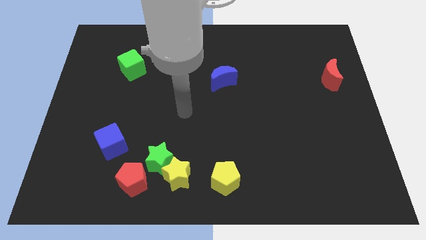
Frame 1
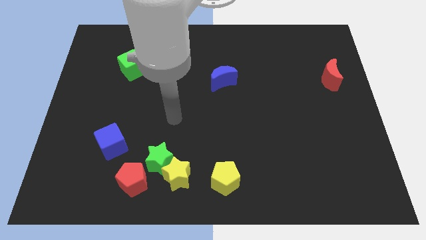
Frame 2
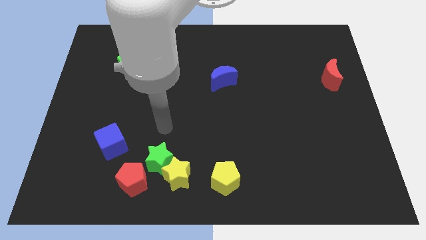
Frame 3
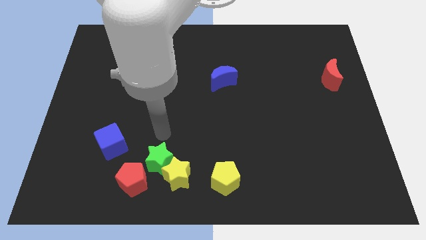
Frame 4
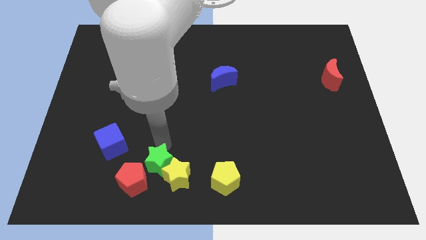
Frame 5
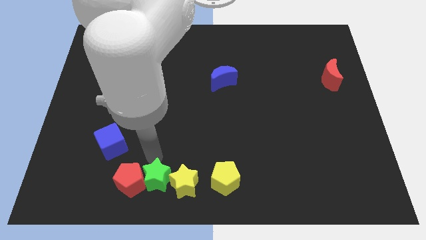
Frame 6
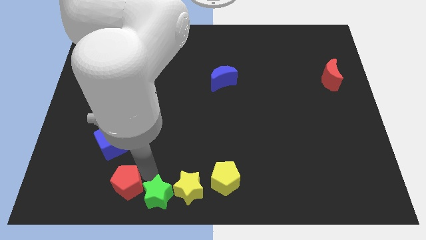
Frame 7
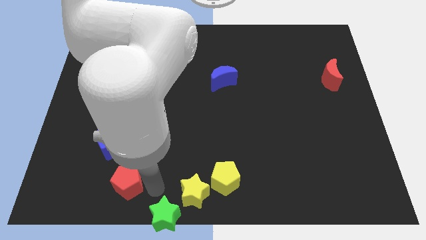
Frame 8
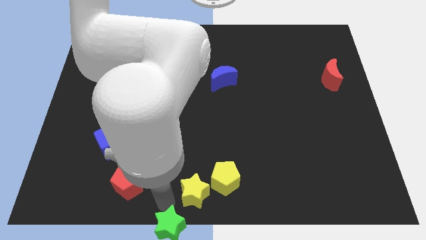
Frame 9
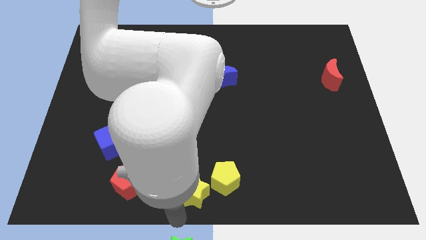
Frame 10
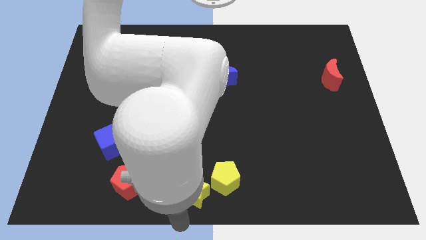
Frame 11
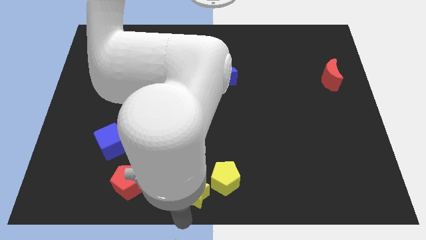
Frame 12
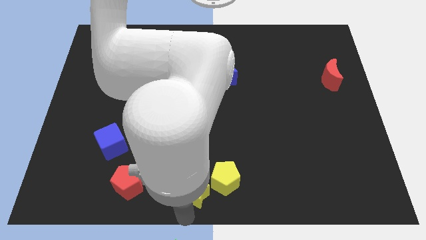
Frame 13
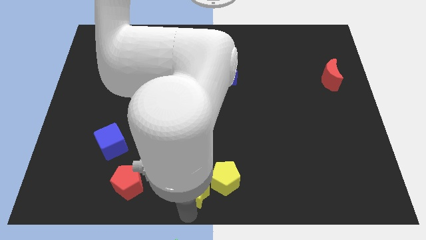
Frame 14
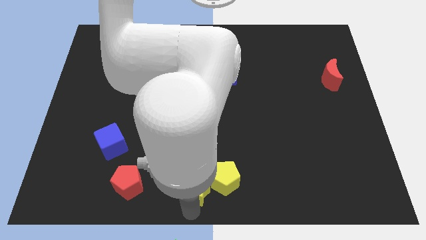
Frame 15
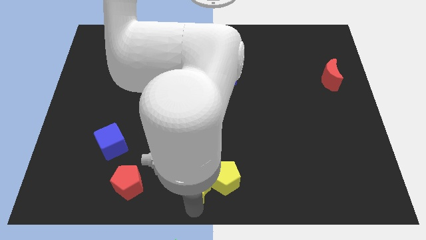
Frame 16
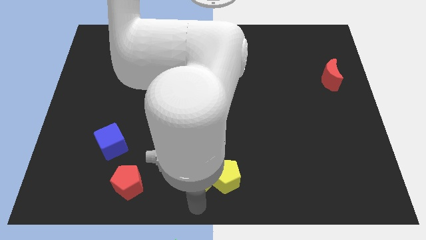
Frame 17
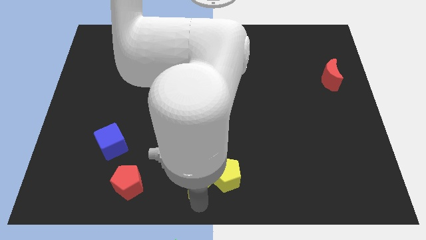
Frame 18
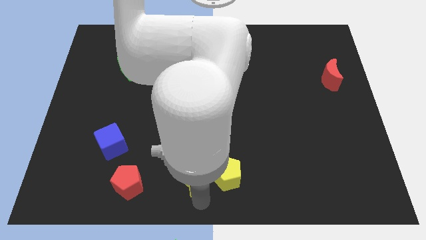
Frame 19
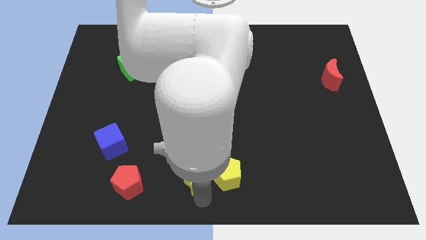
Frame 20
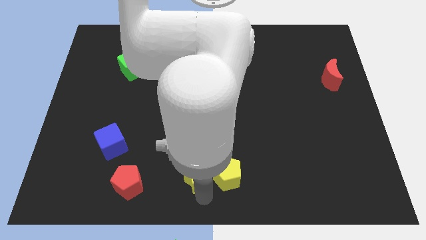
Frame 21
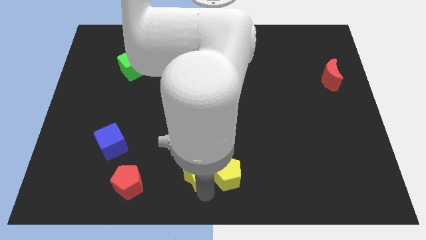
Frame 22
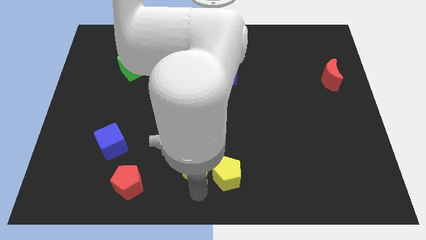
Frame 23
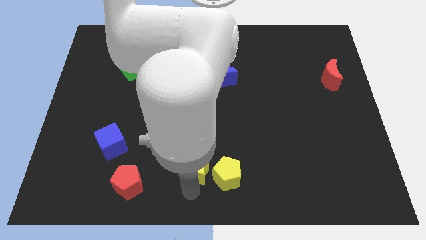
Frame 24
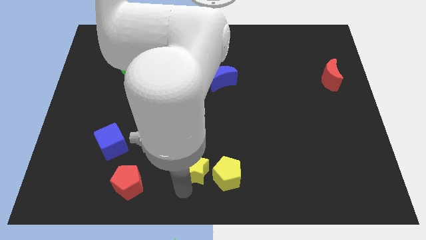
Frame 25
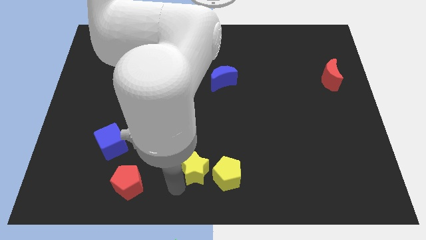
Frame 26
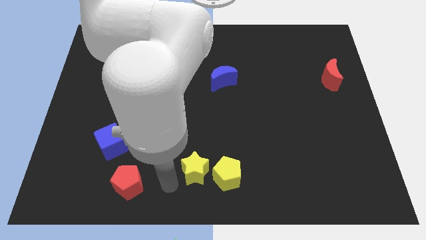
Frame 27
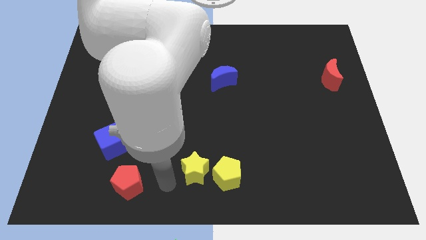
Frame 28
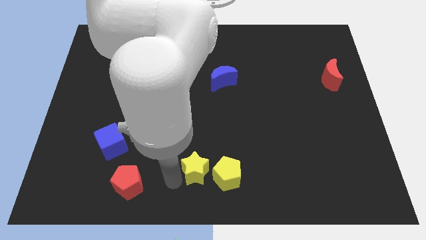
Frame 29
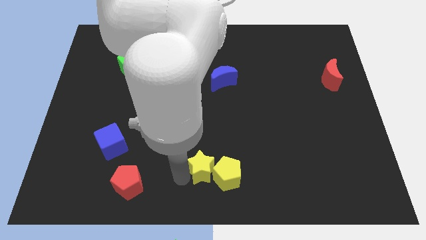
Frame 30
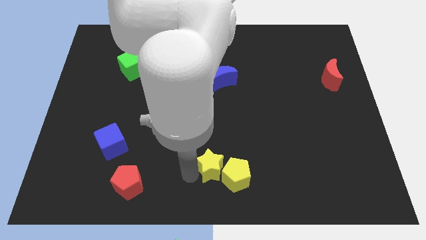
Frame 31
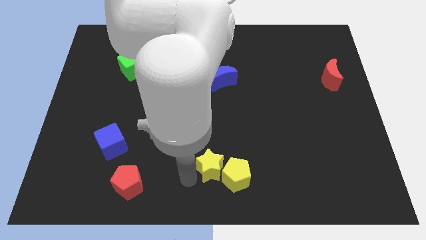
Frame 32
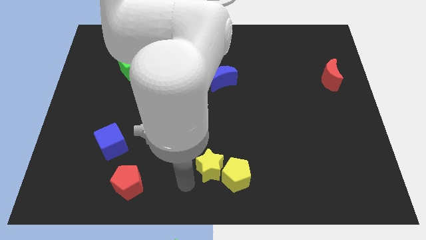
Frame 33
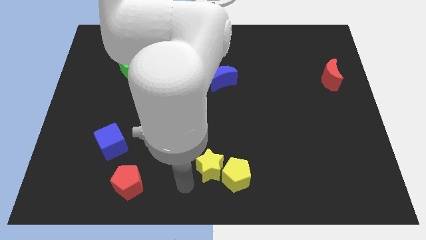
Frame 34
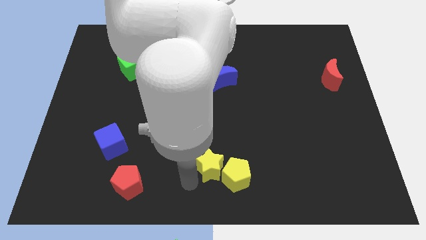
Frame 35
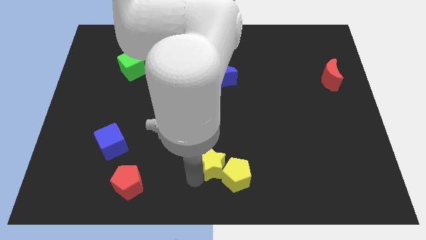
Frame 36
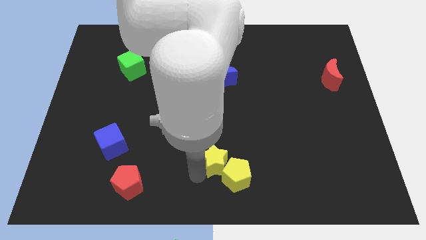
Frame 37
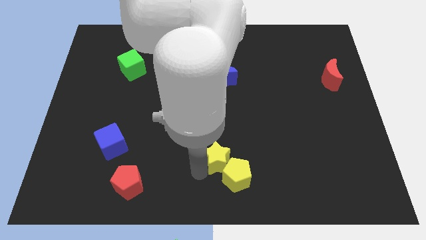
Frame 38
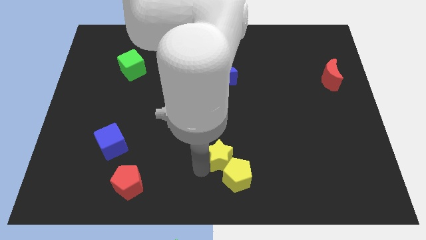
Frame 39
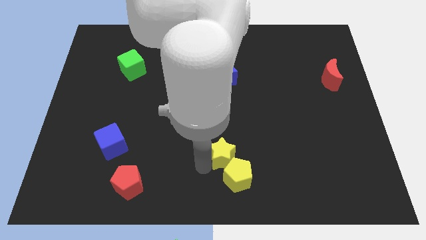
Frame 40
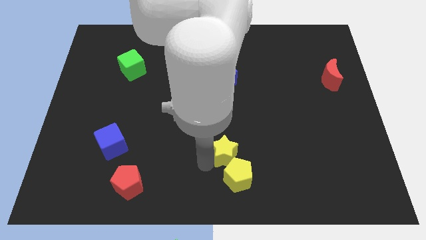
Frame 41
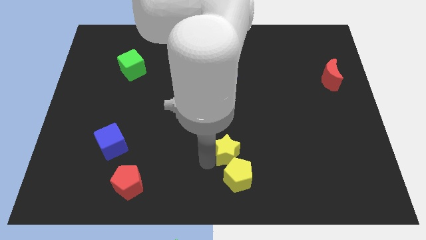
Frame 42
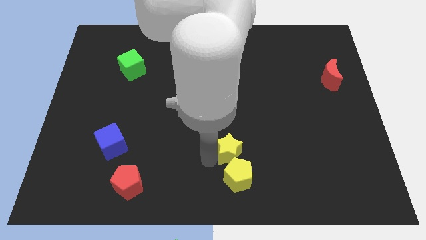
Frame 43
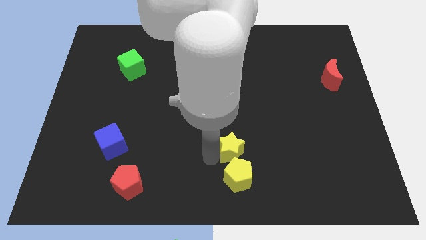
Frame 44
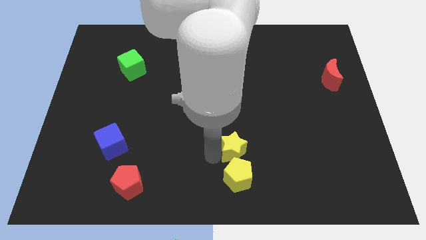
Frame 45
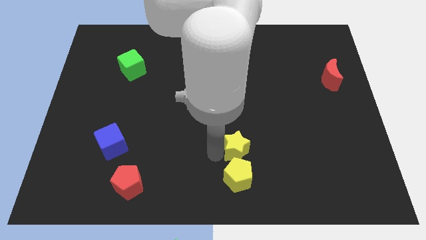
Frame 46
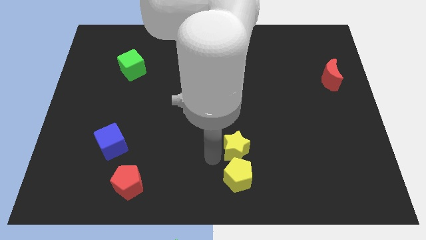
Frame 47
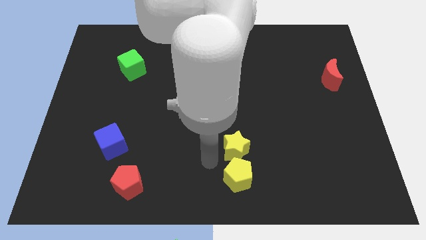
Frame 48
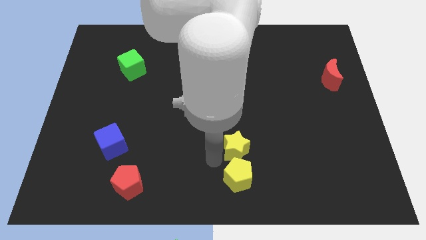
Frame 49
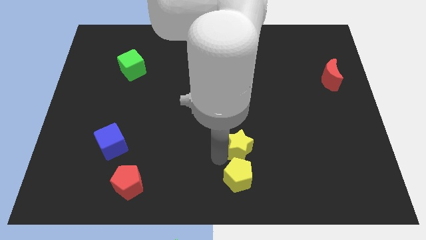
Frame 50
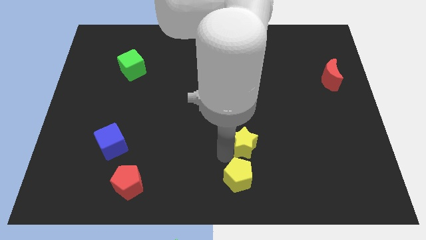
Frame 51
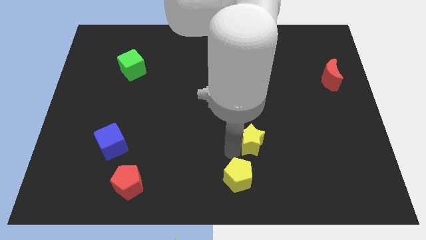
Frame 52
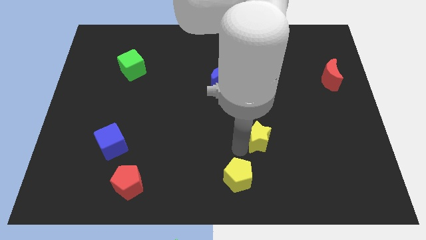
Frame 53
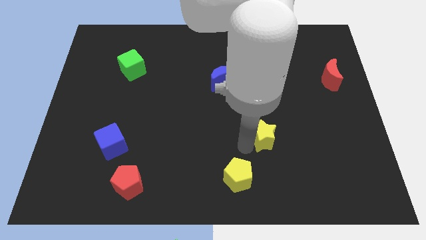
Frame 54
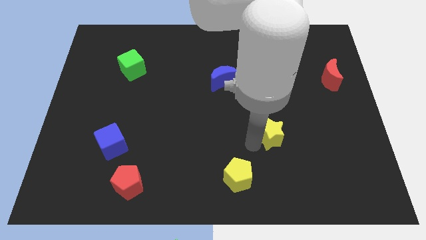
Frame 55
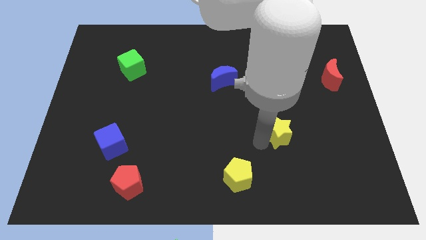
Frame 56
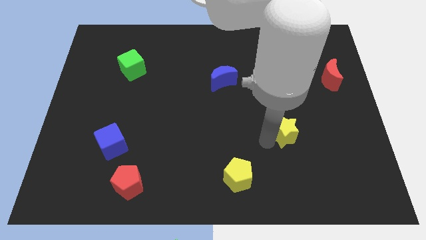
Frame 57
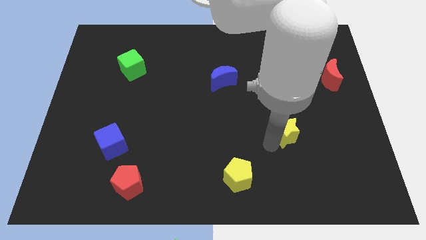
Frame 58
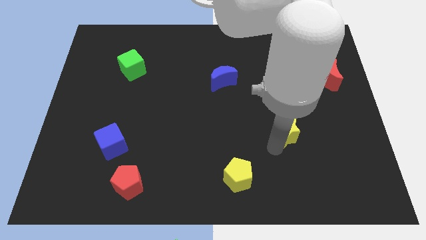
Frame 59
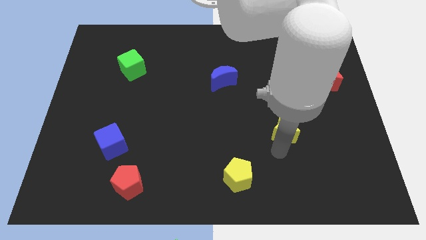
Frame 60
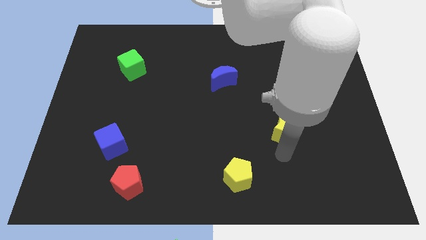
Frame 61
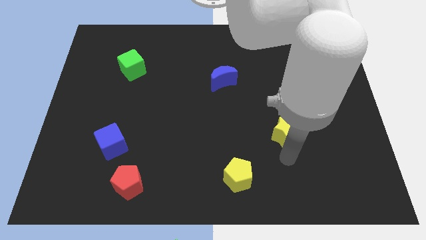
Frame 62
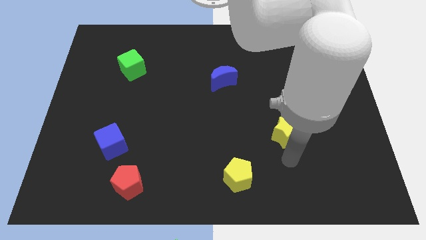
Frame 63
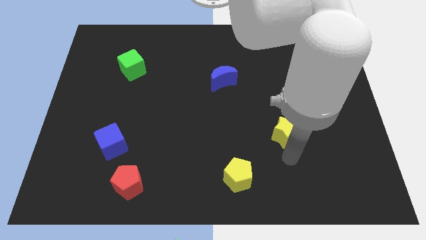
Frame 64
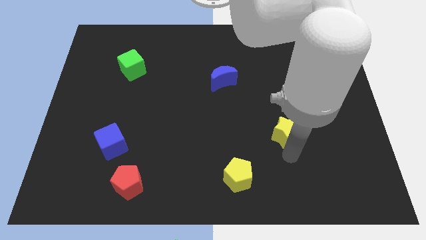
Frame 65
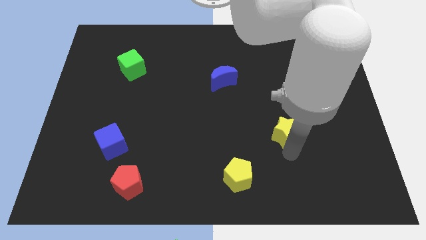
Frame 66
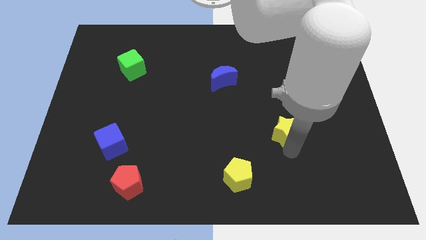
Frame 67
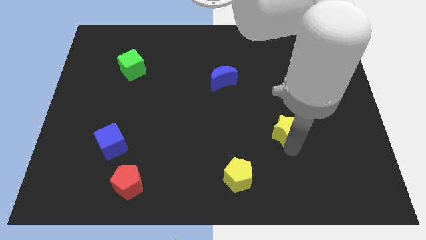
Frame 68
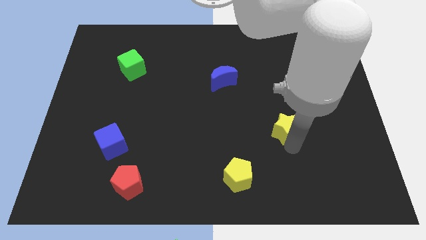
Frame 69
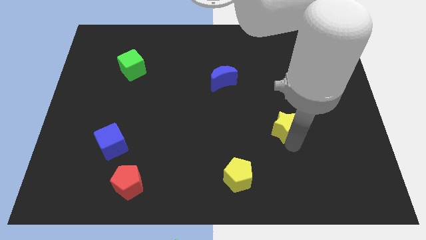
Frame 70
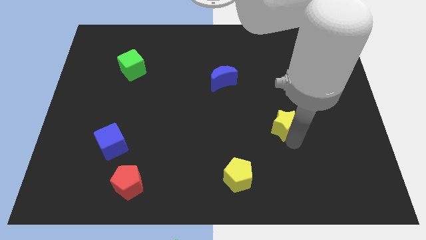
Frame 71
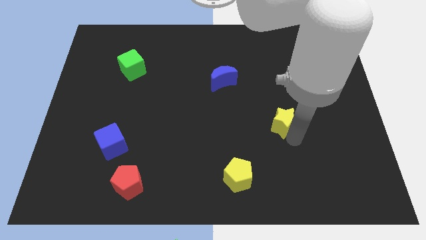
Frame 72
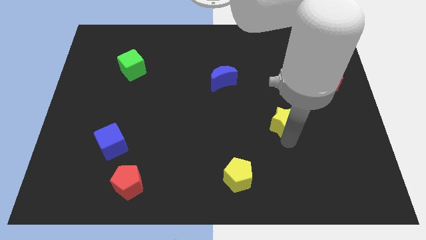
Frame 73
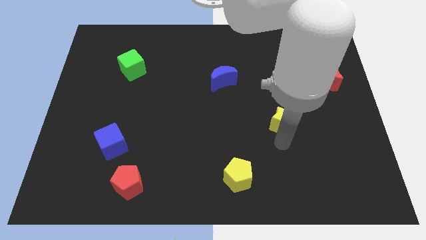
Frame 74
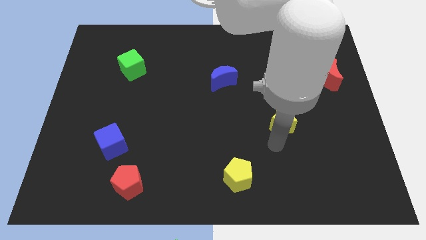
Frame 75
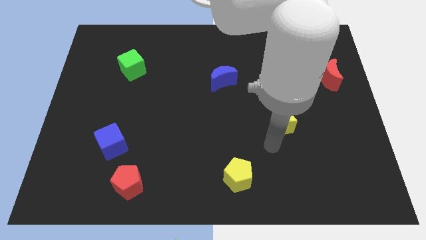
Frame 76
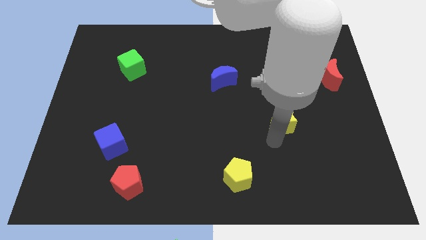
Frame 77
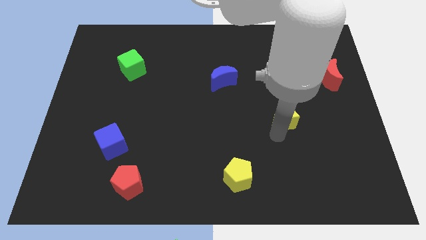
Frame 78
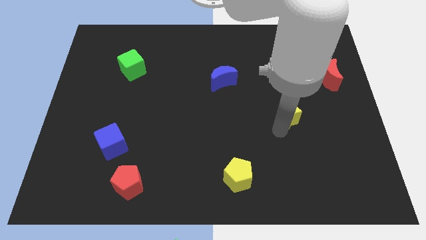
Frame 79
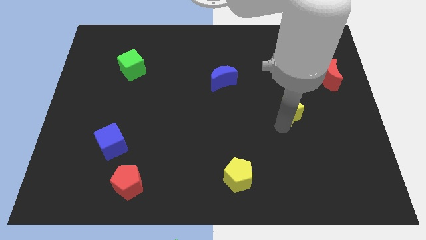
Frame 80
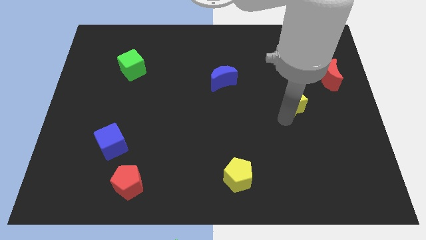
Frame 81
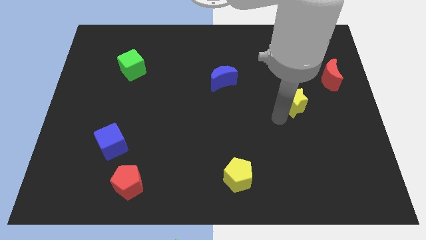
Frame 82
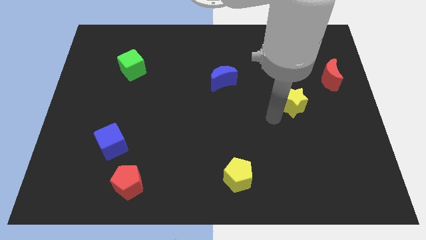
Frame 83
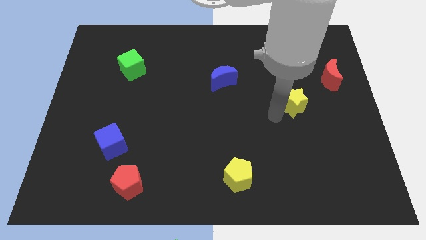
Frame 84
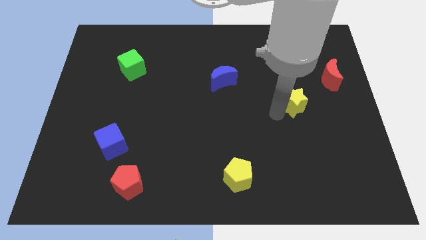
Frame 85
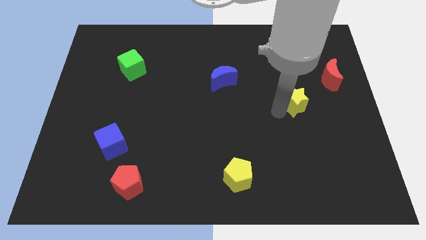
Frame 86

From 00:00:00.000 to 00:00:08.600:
move the yellow star to the bottom left of the red moon
